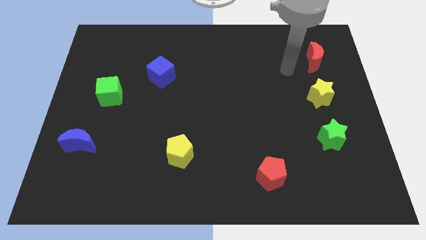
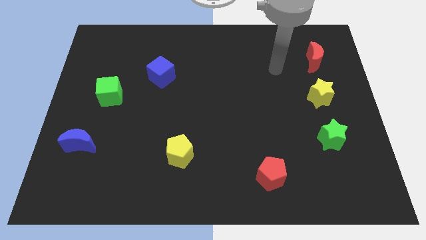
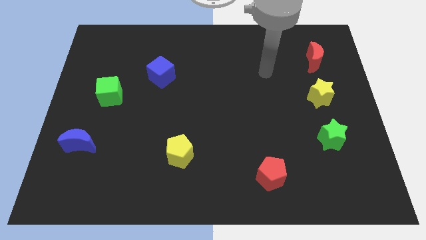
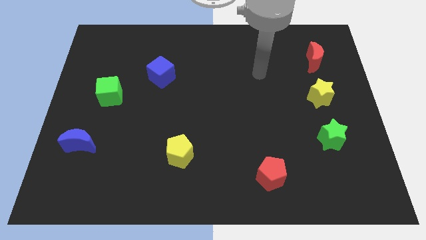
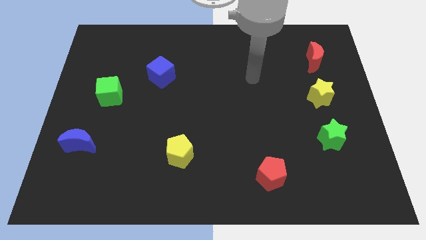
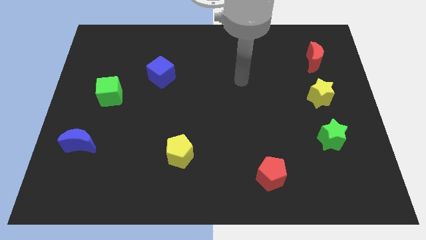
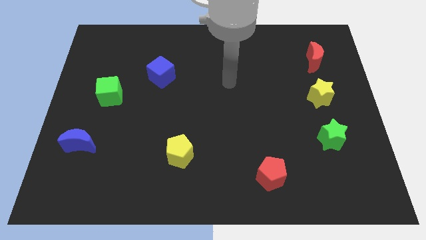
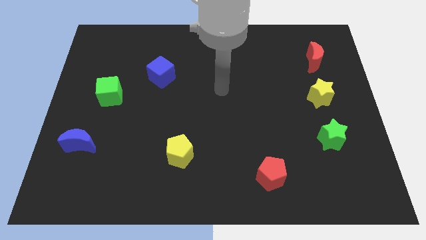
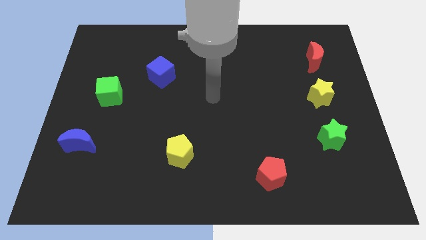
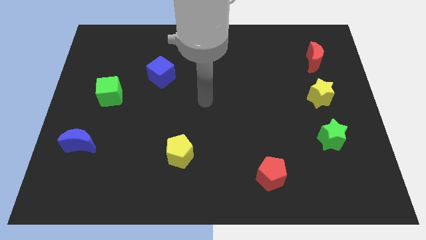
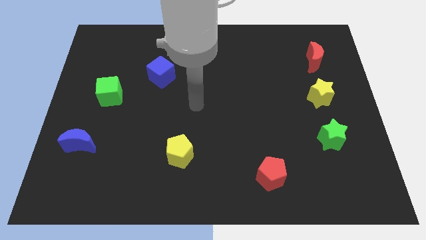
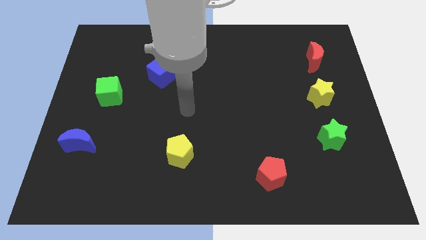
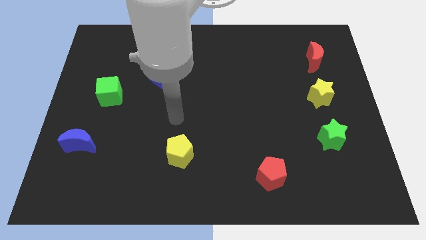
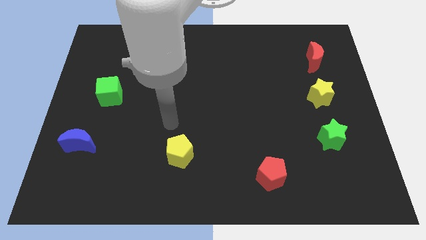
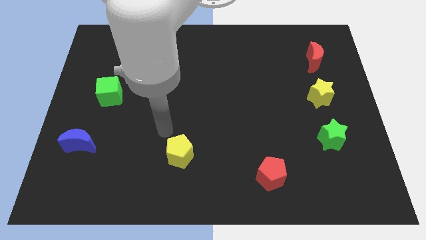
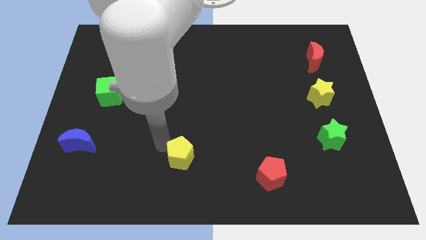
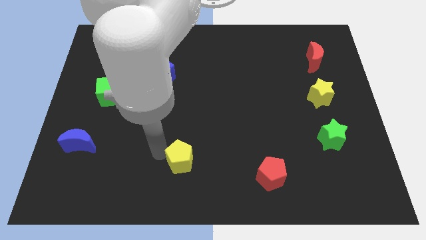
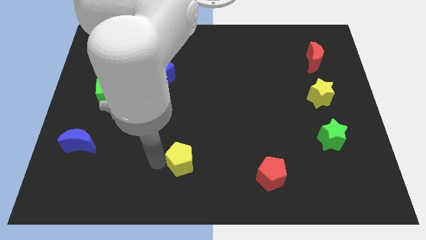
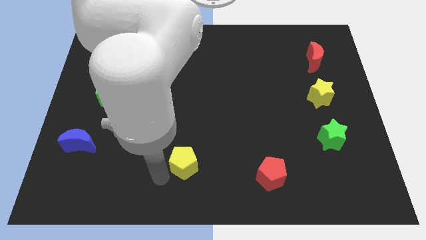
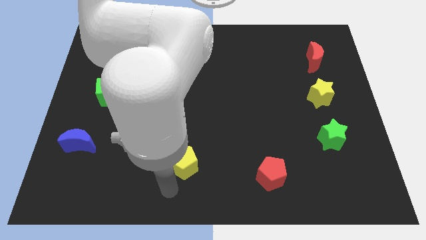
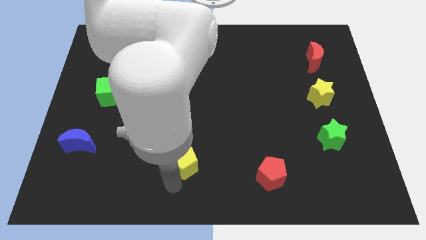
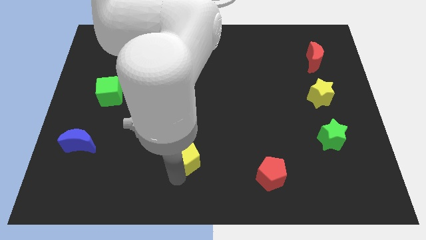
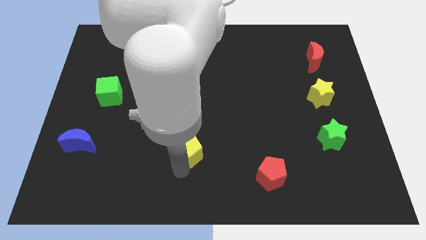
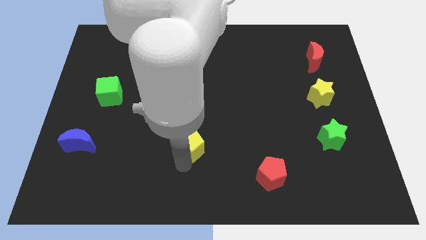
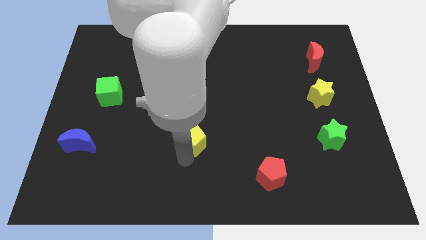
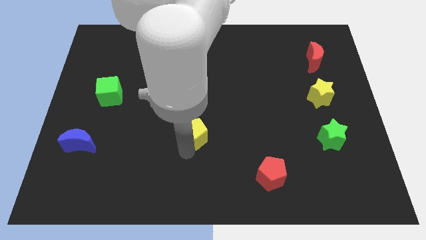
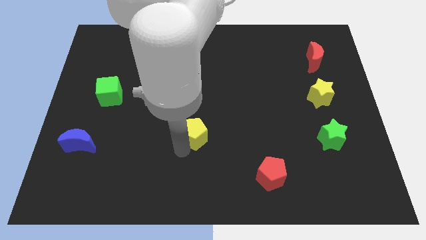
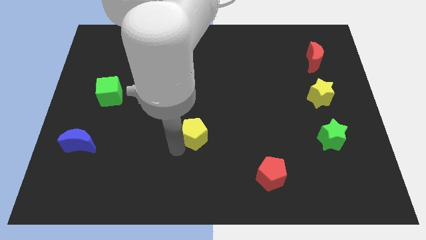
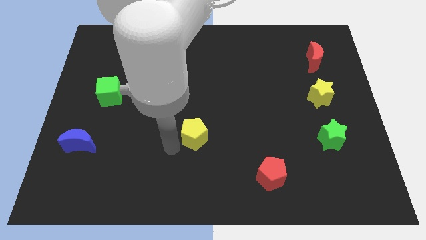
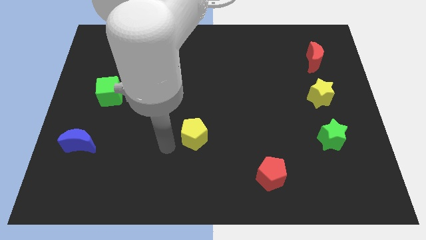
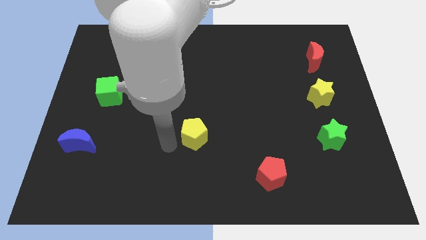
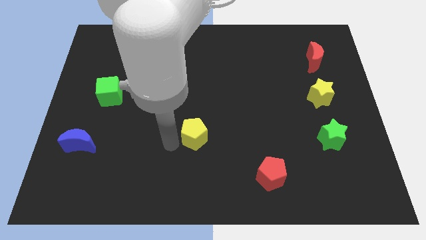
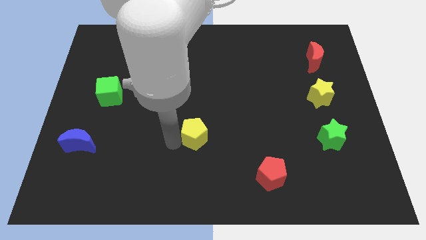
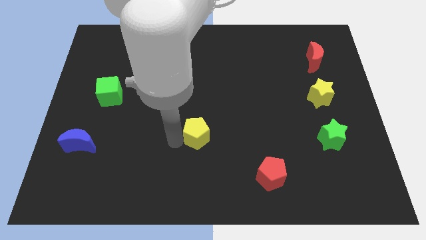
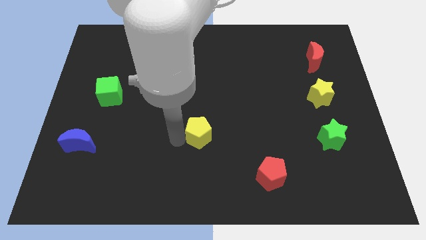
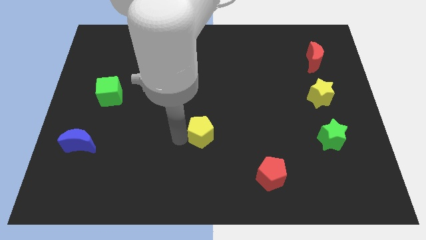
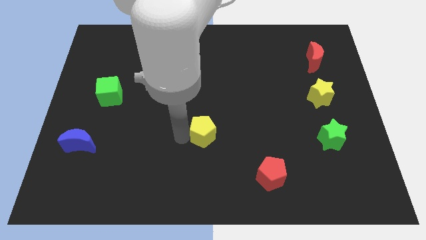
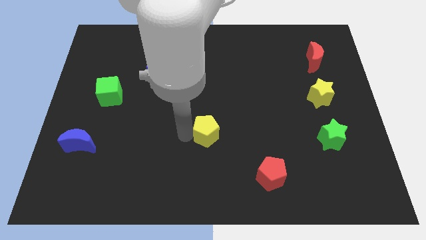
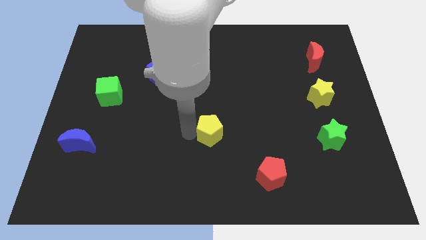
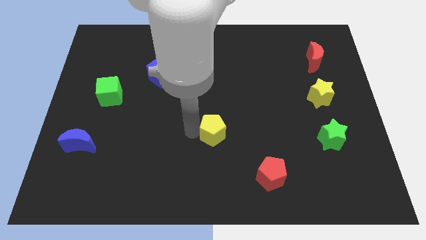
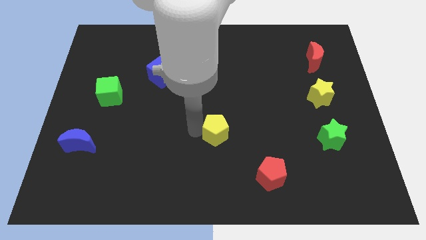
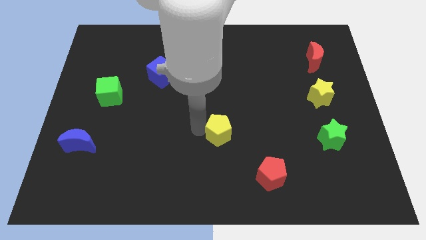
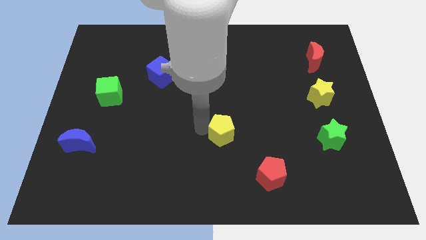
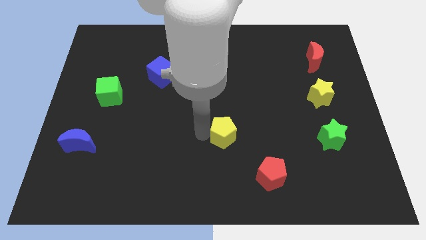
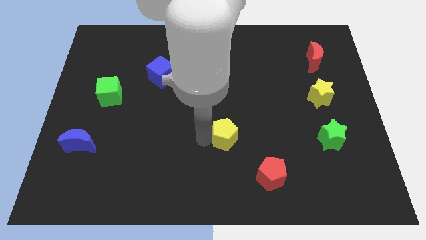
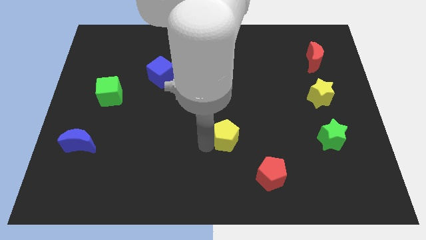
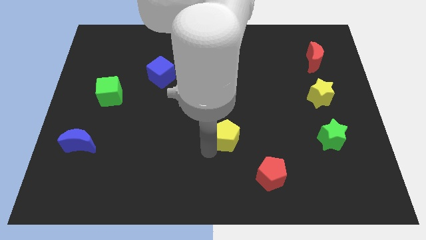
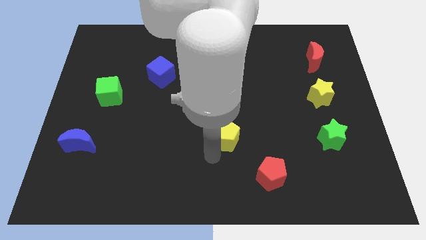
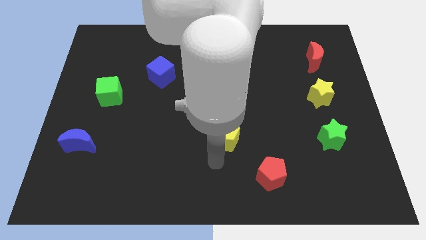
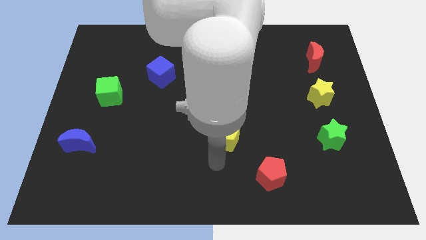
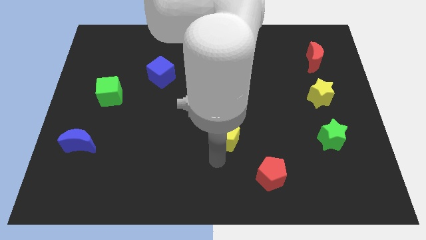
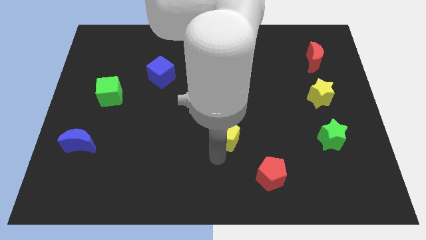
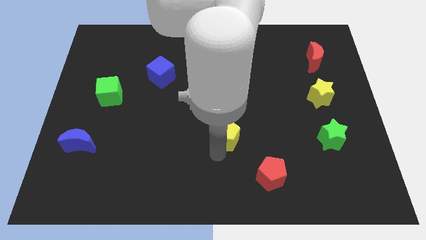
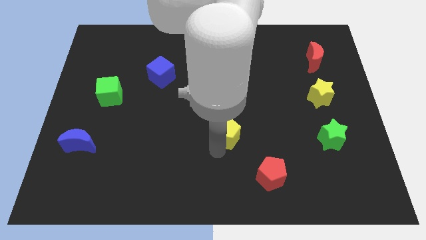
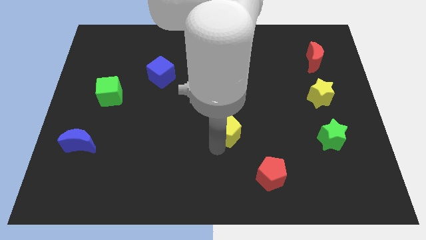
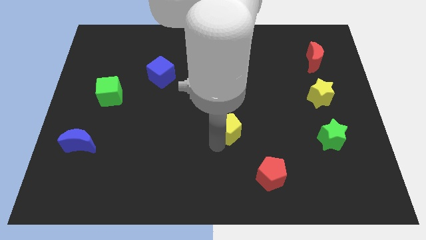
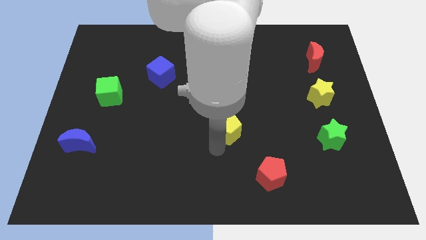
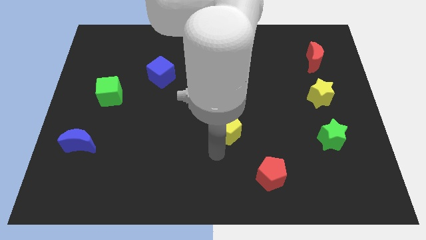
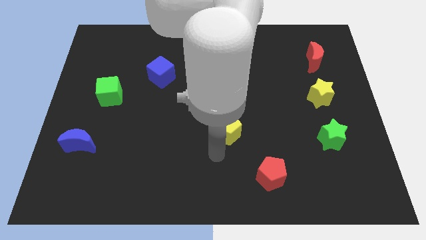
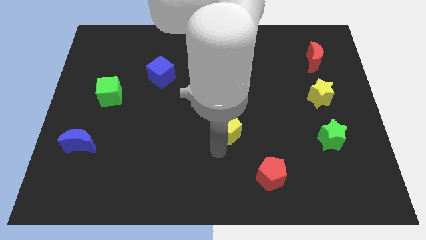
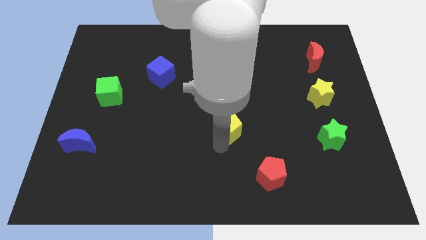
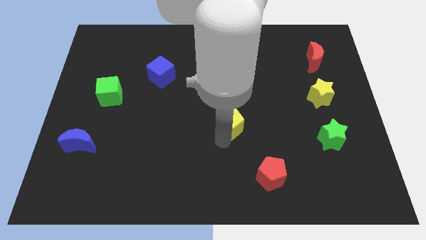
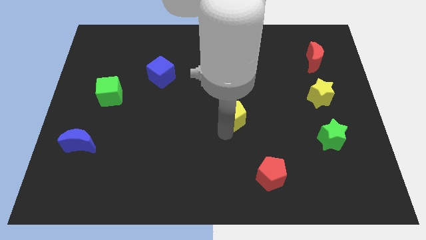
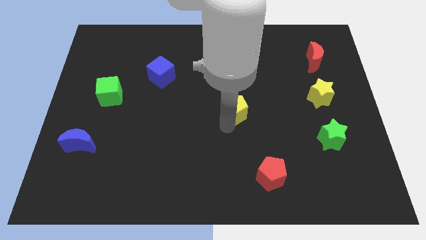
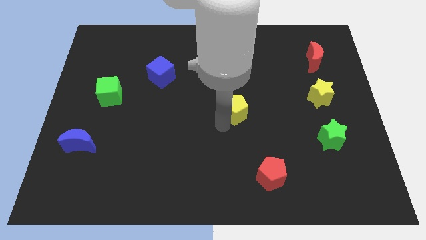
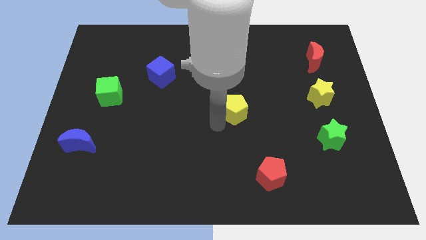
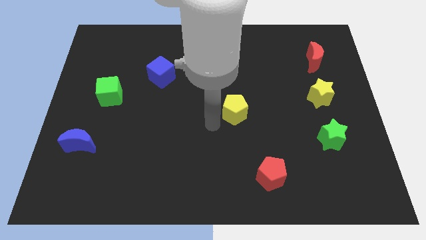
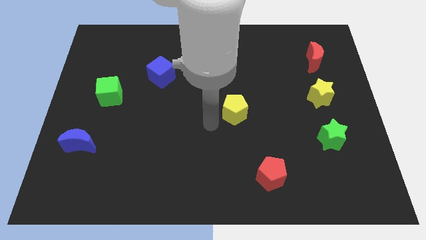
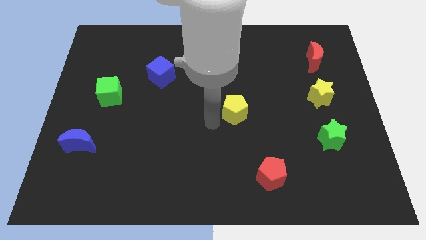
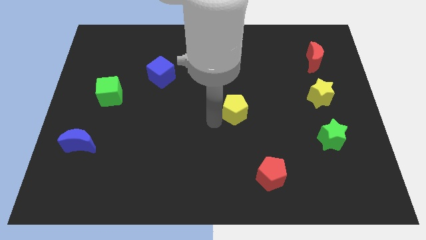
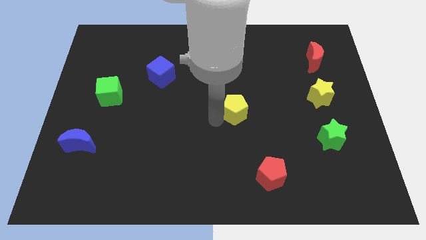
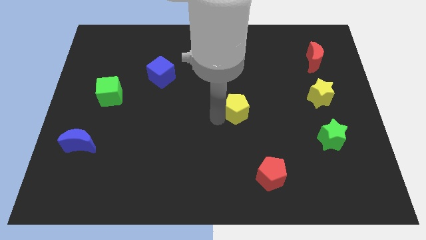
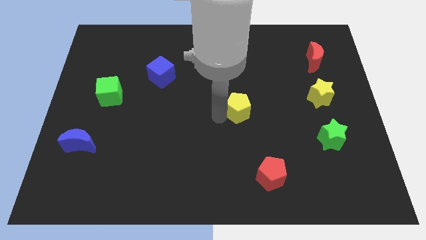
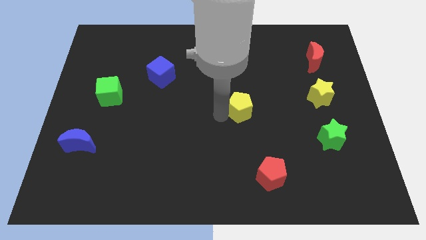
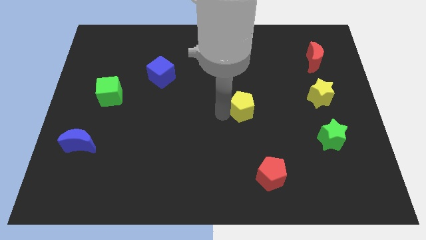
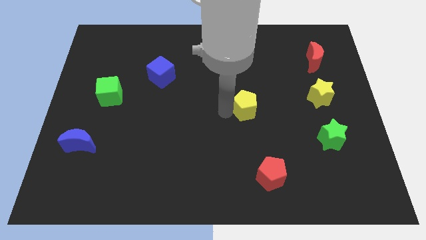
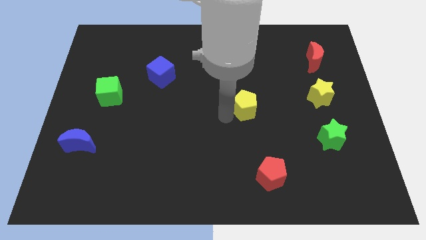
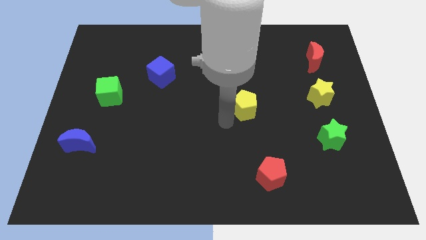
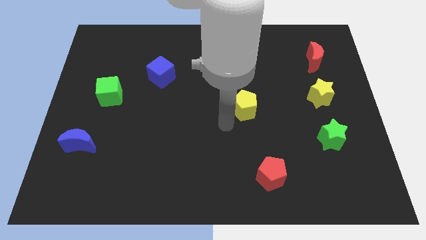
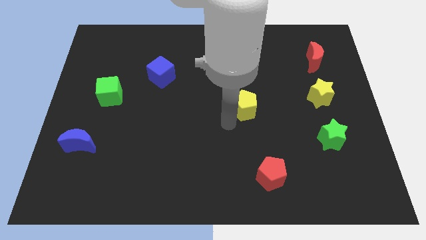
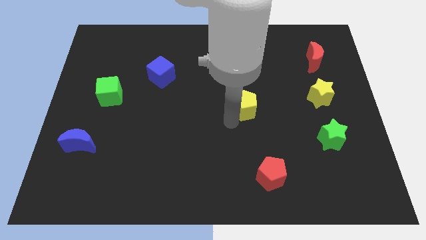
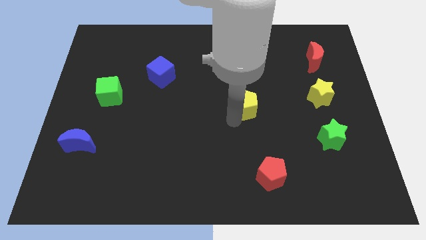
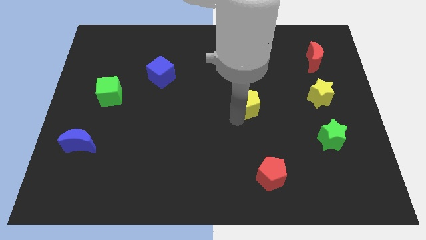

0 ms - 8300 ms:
move the yellow pentagon up and right diagonally
